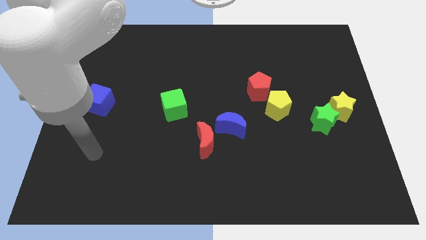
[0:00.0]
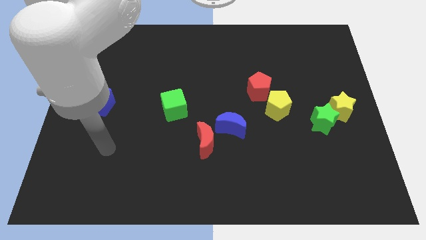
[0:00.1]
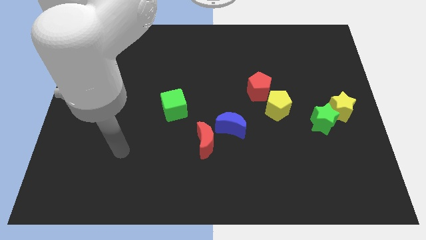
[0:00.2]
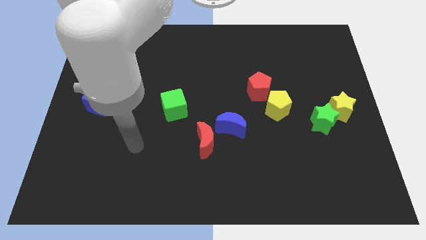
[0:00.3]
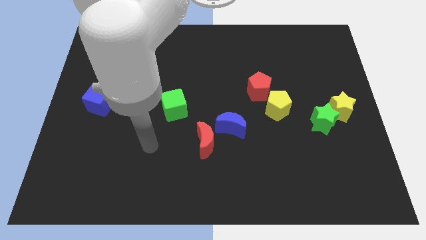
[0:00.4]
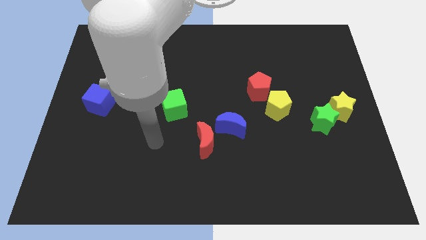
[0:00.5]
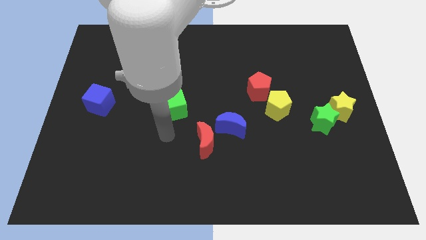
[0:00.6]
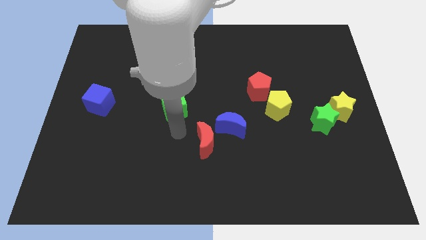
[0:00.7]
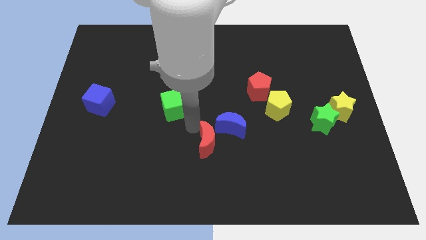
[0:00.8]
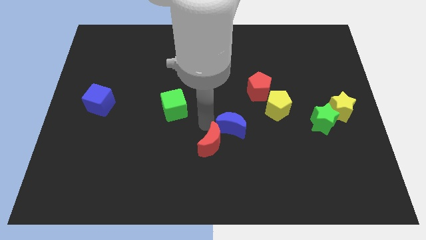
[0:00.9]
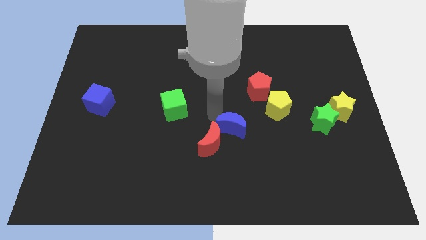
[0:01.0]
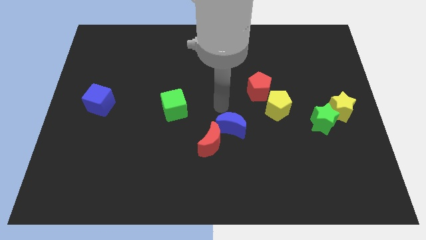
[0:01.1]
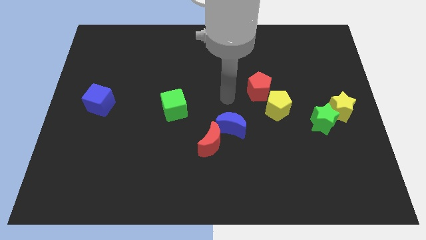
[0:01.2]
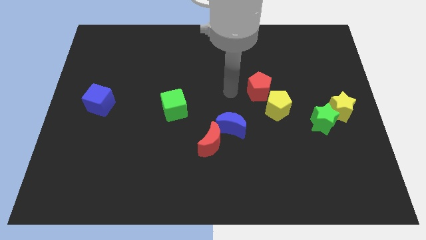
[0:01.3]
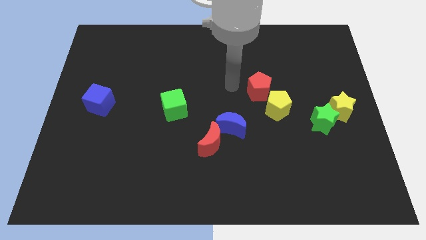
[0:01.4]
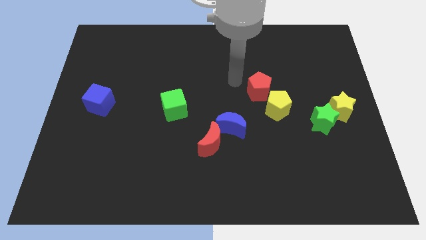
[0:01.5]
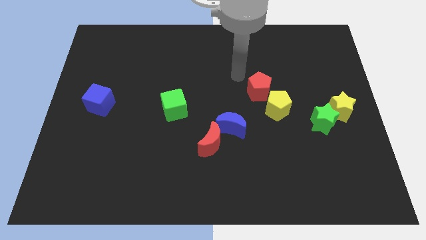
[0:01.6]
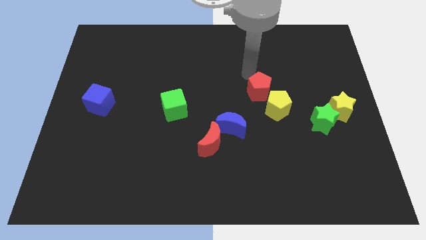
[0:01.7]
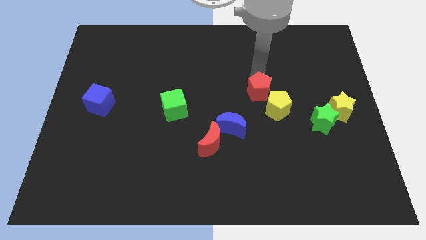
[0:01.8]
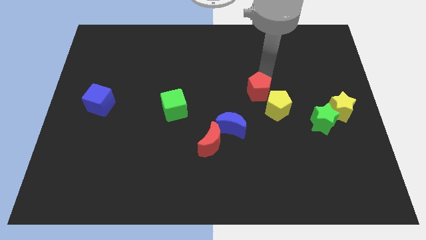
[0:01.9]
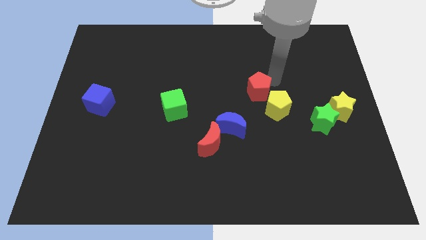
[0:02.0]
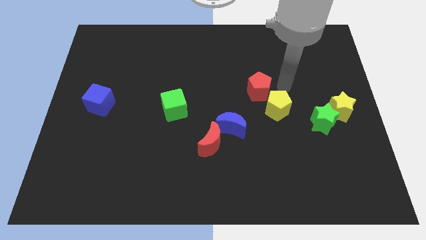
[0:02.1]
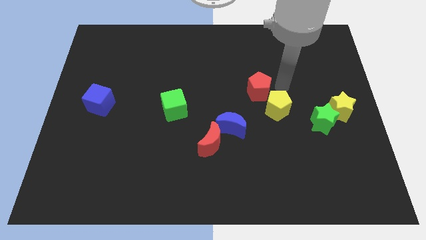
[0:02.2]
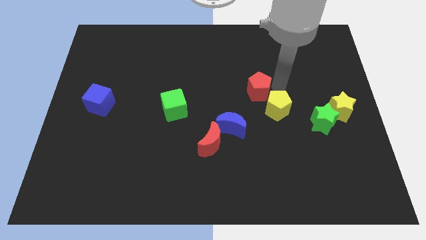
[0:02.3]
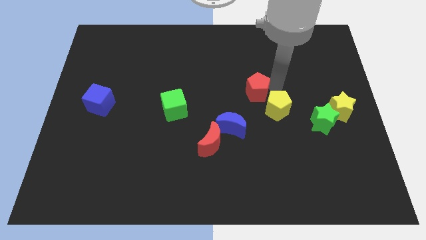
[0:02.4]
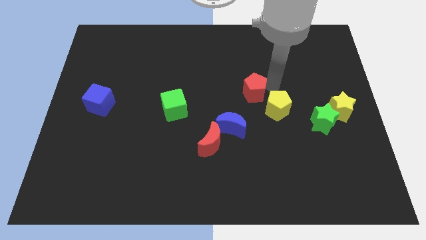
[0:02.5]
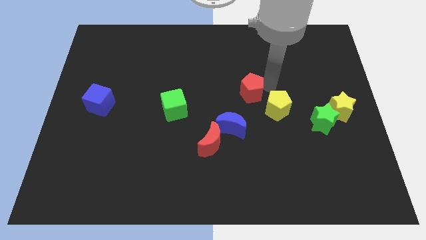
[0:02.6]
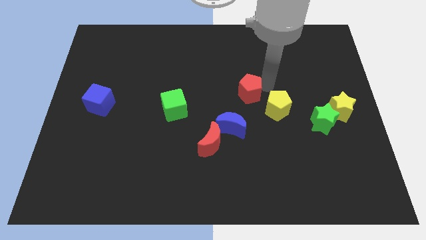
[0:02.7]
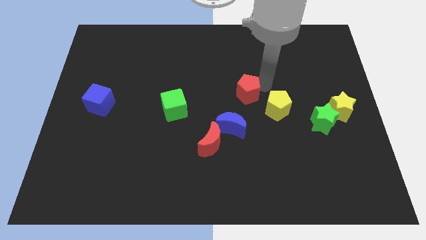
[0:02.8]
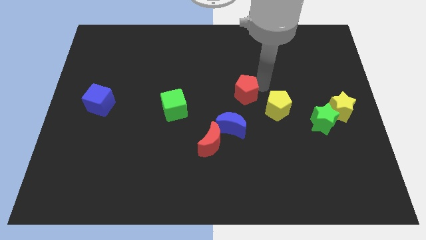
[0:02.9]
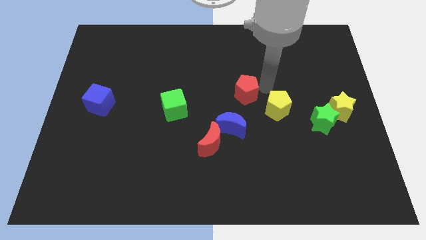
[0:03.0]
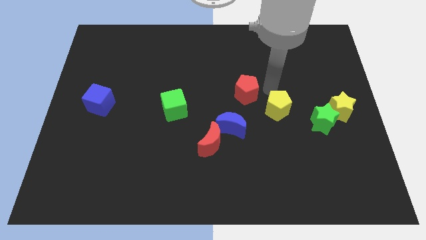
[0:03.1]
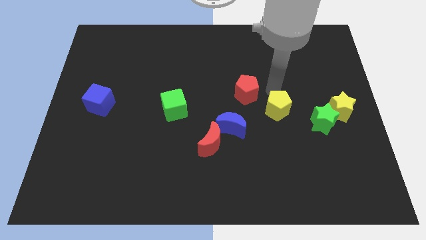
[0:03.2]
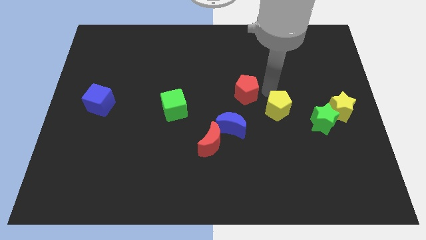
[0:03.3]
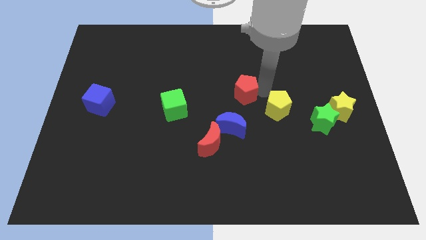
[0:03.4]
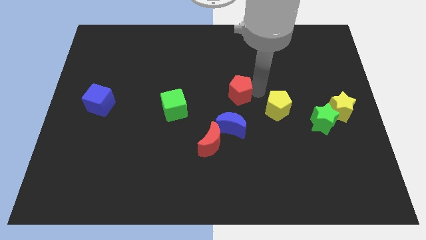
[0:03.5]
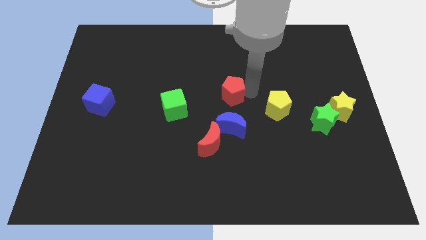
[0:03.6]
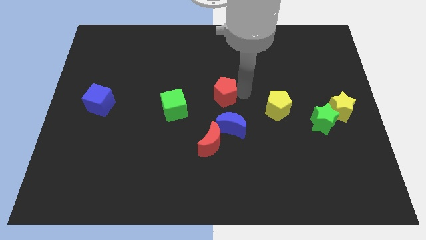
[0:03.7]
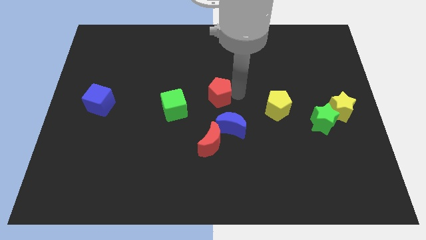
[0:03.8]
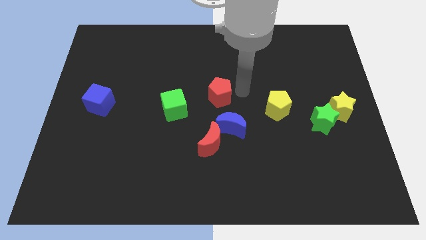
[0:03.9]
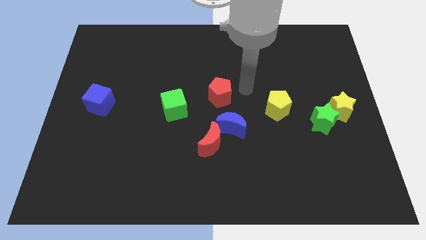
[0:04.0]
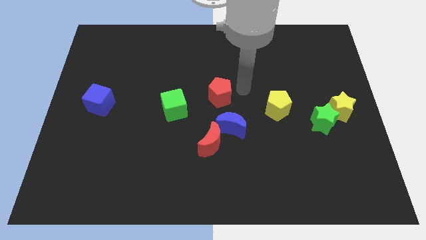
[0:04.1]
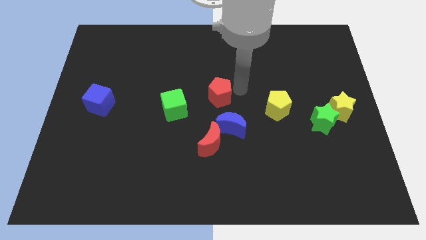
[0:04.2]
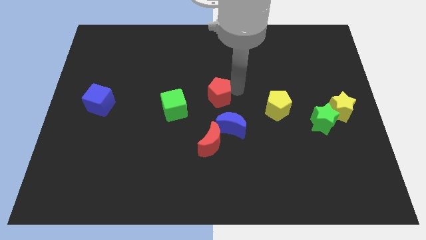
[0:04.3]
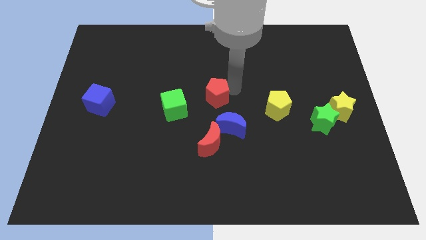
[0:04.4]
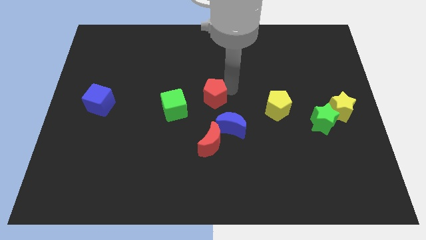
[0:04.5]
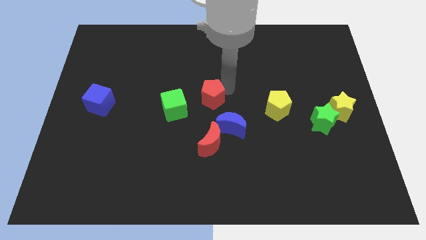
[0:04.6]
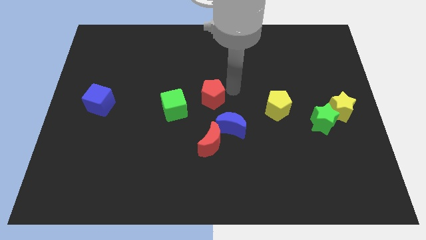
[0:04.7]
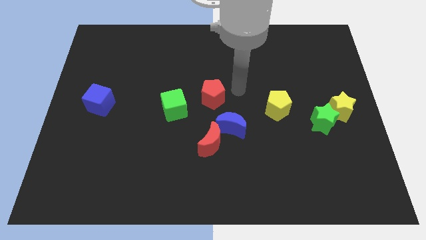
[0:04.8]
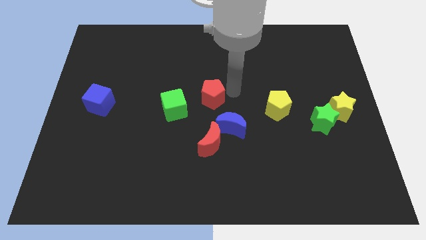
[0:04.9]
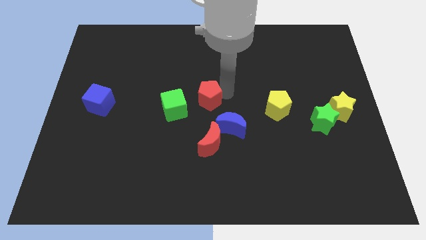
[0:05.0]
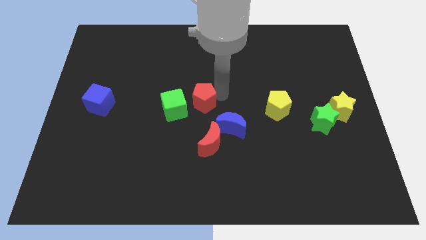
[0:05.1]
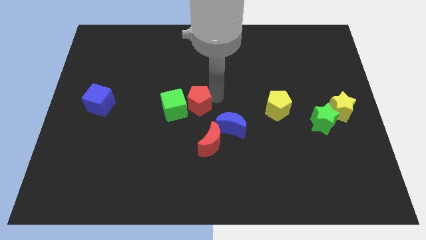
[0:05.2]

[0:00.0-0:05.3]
put the red pentagon close to the green cube

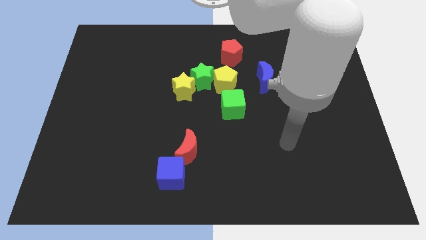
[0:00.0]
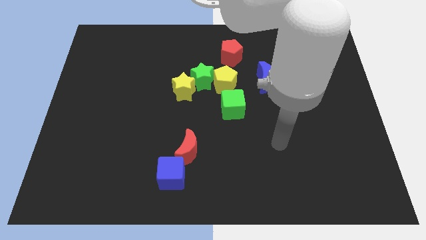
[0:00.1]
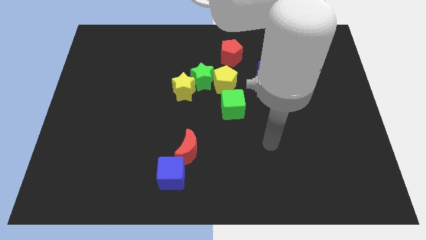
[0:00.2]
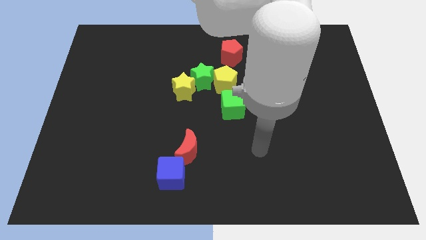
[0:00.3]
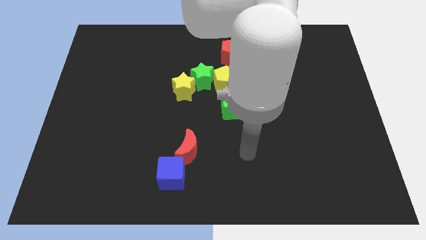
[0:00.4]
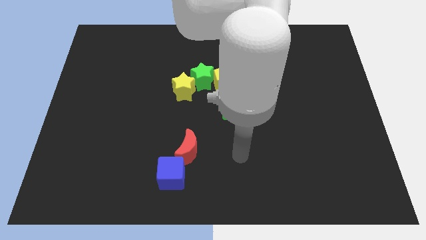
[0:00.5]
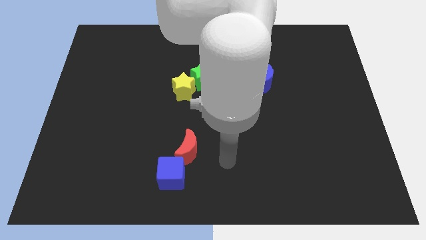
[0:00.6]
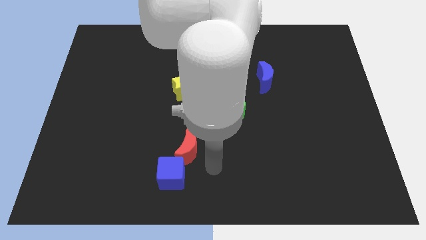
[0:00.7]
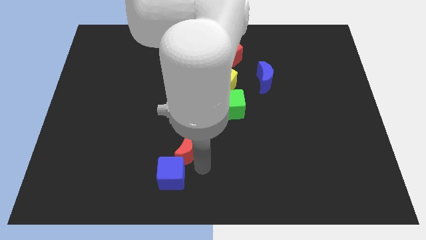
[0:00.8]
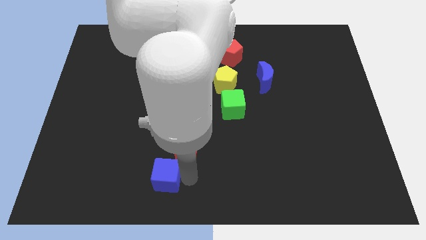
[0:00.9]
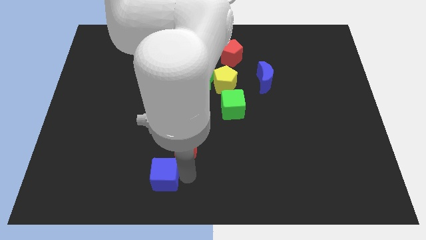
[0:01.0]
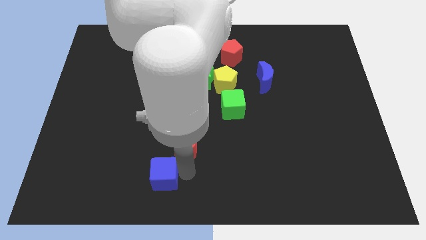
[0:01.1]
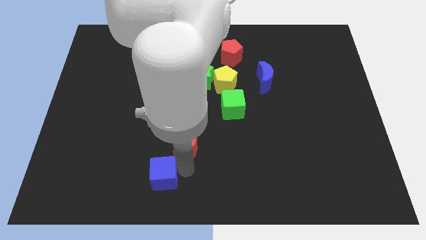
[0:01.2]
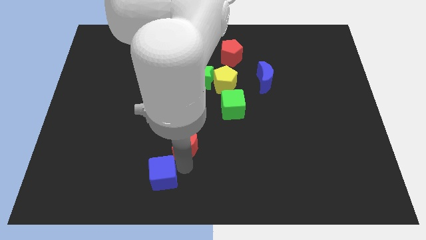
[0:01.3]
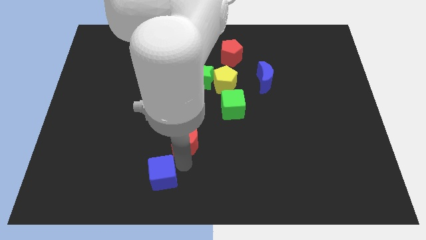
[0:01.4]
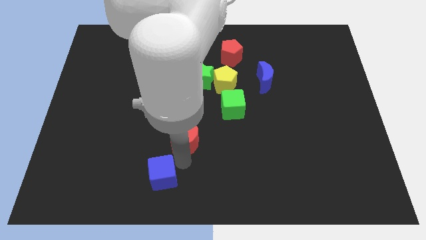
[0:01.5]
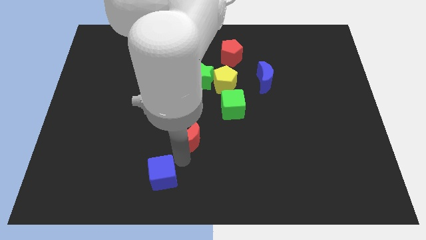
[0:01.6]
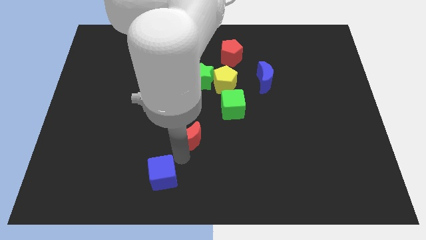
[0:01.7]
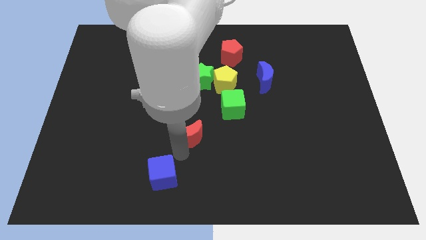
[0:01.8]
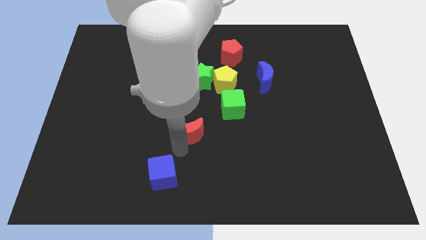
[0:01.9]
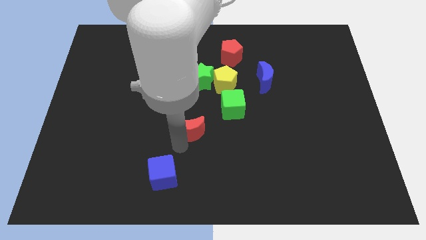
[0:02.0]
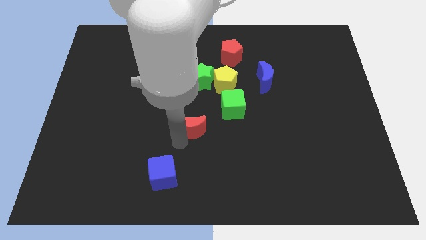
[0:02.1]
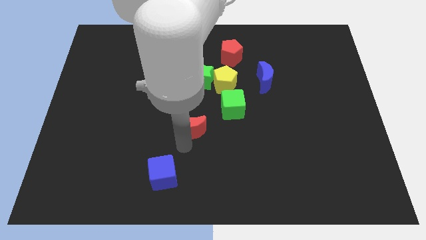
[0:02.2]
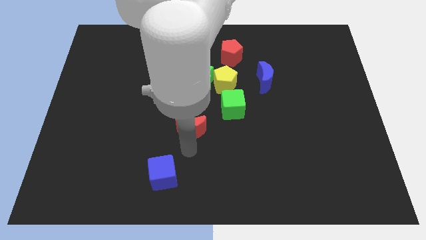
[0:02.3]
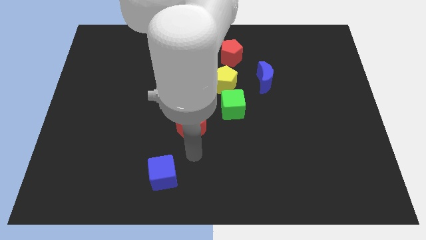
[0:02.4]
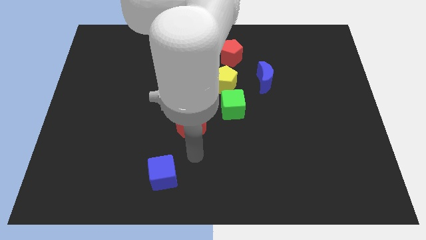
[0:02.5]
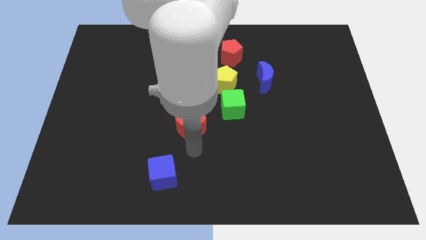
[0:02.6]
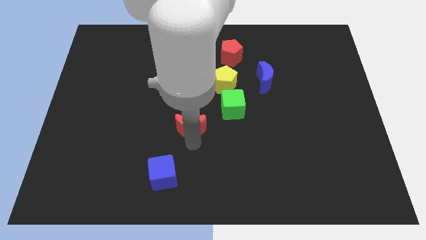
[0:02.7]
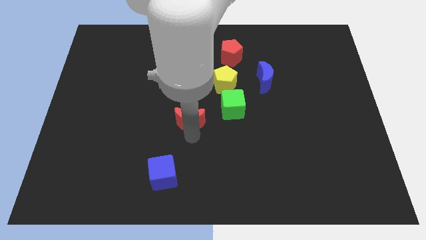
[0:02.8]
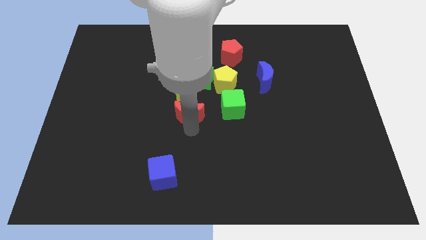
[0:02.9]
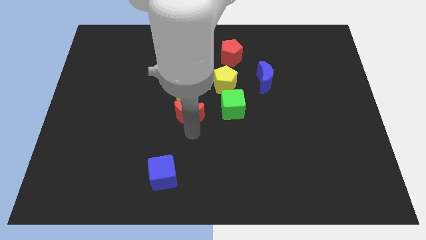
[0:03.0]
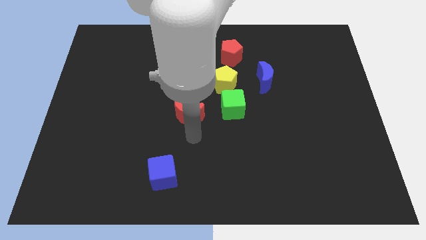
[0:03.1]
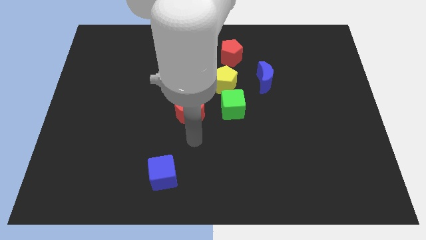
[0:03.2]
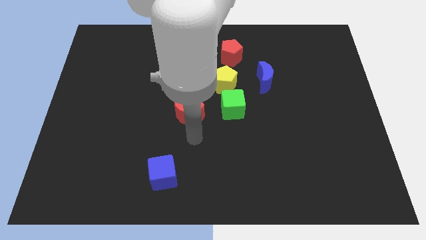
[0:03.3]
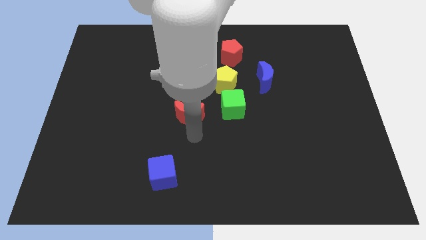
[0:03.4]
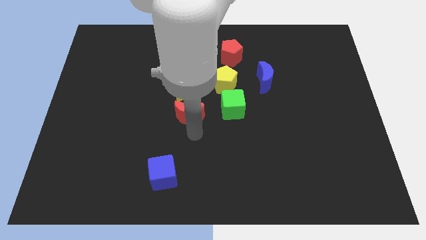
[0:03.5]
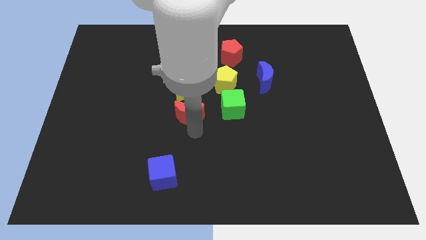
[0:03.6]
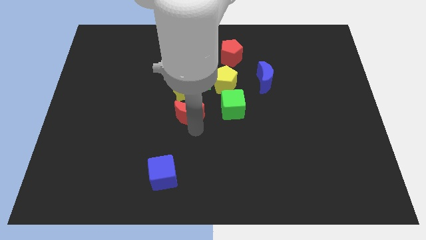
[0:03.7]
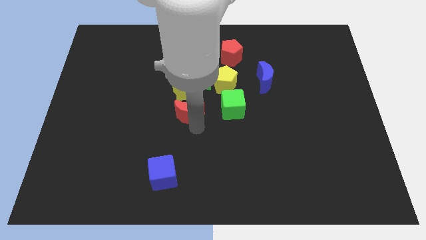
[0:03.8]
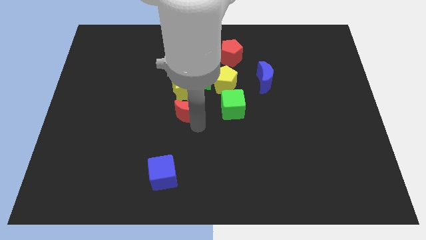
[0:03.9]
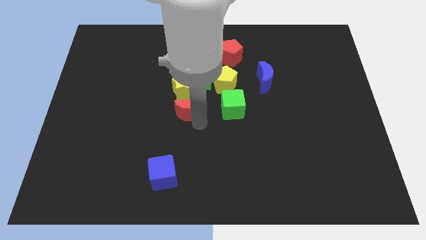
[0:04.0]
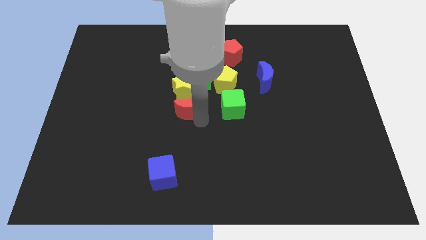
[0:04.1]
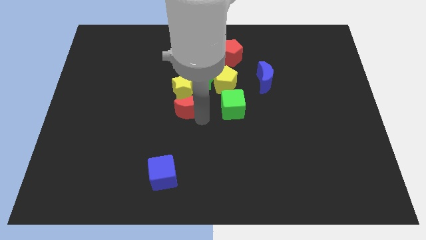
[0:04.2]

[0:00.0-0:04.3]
move the red moon towards the yellow star
